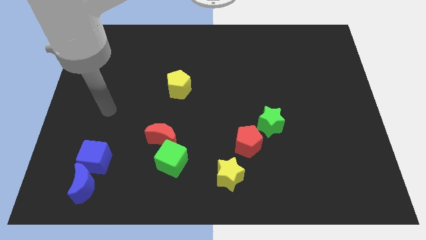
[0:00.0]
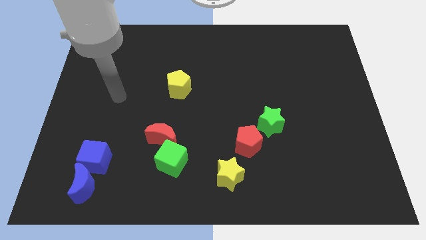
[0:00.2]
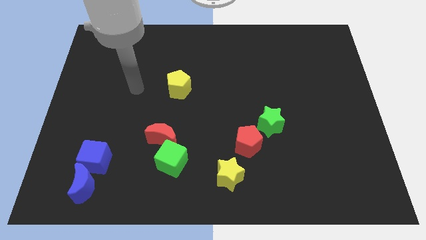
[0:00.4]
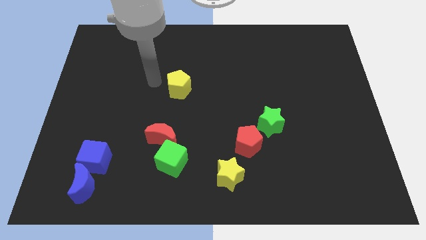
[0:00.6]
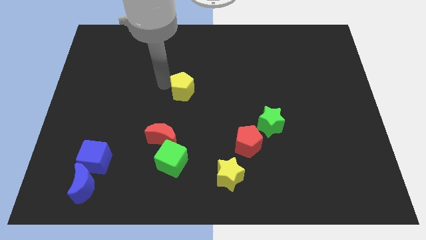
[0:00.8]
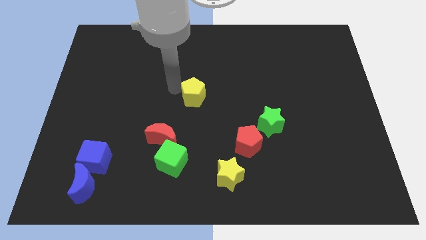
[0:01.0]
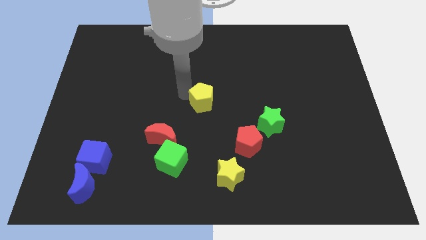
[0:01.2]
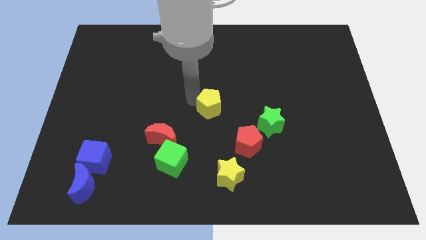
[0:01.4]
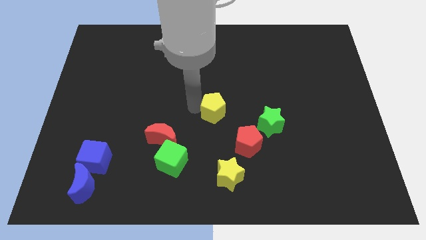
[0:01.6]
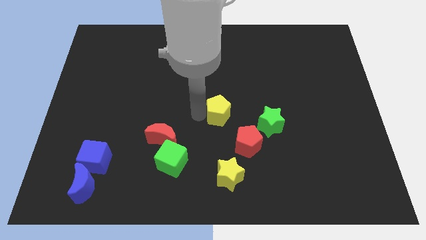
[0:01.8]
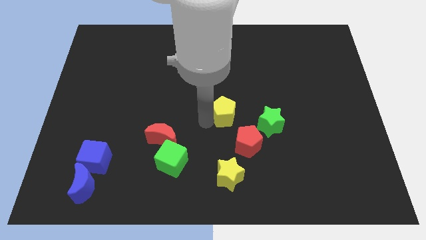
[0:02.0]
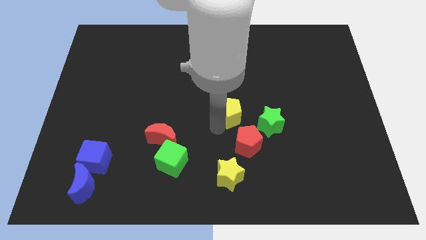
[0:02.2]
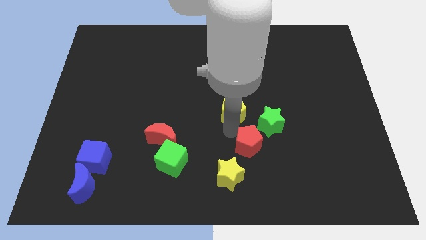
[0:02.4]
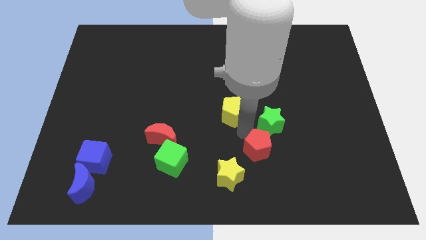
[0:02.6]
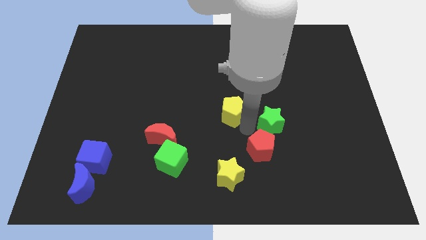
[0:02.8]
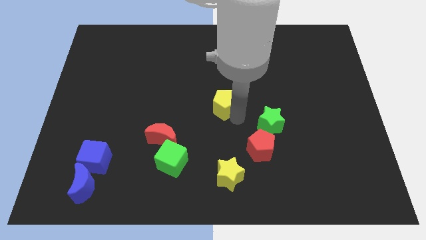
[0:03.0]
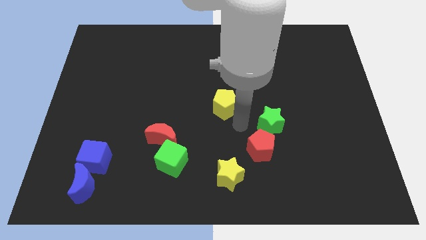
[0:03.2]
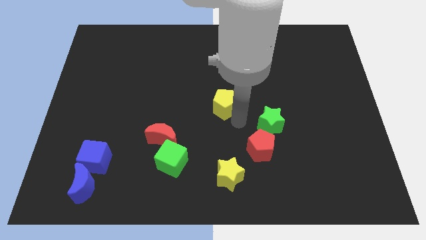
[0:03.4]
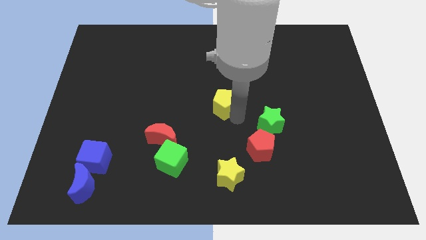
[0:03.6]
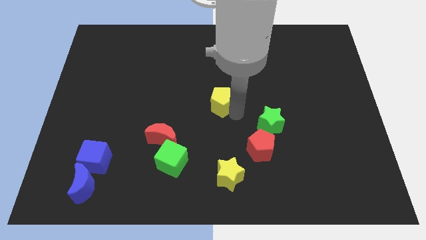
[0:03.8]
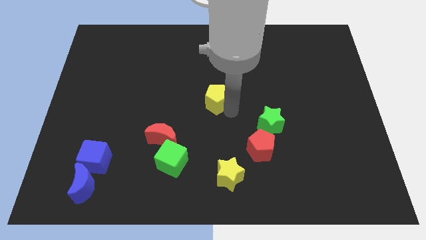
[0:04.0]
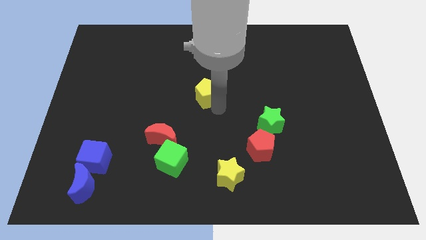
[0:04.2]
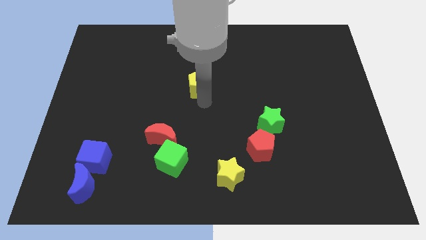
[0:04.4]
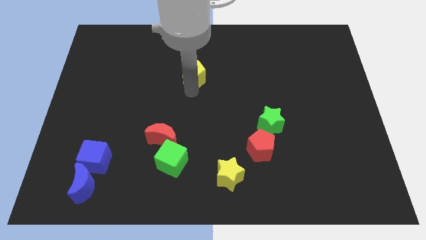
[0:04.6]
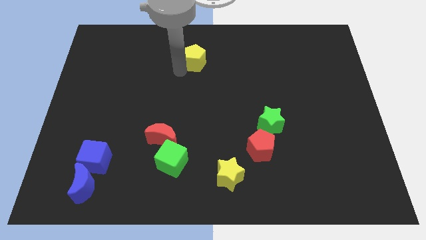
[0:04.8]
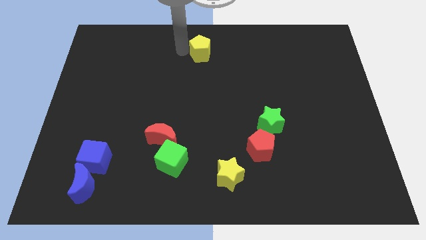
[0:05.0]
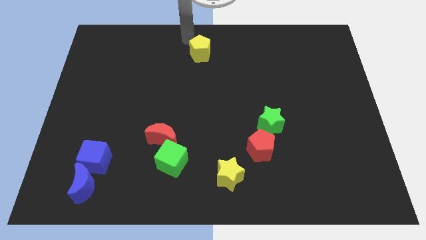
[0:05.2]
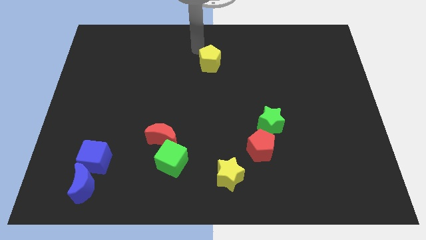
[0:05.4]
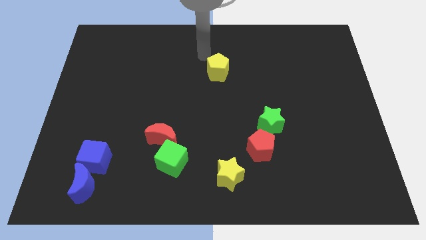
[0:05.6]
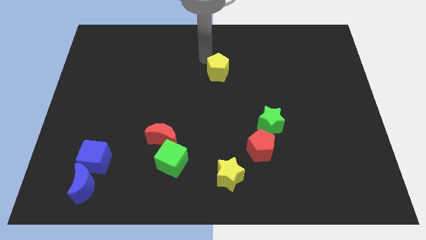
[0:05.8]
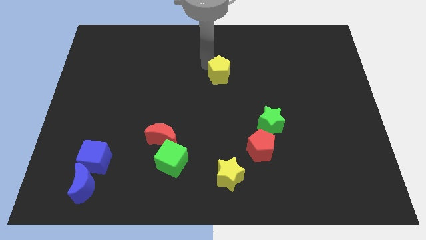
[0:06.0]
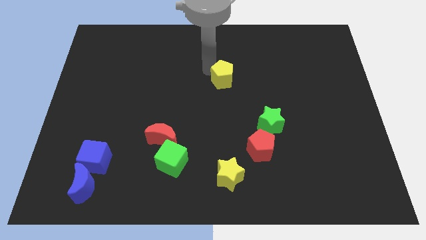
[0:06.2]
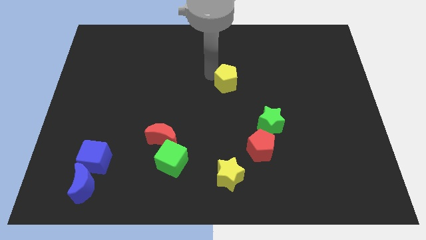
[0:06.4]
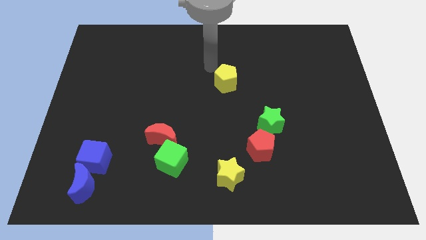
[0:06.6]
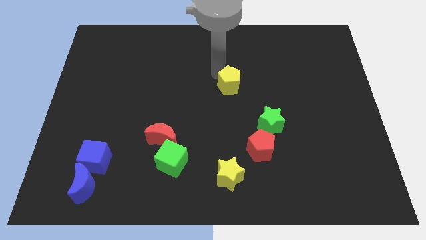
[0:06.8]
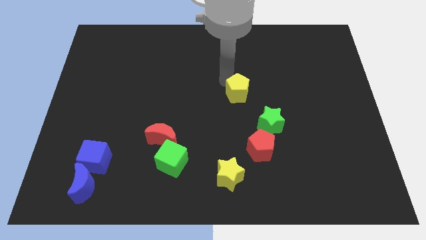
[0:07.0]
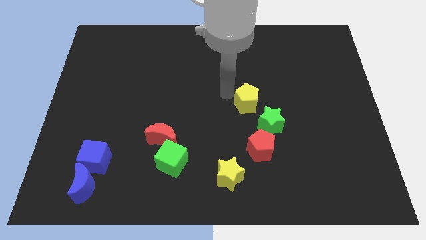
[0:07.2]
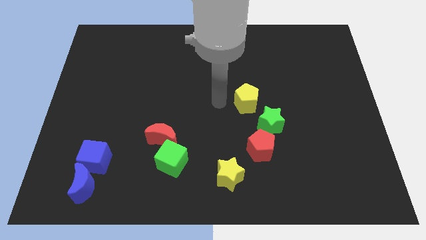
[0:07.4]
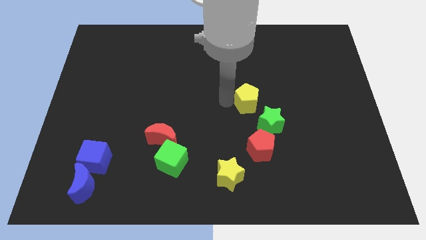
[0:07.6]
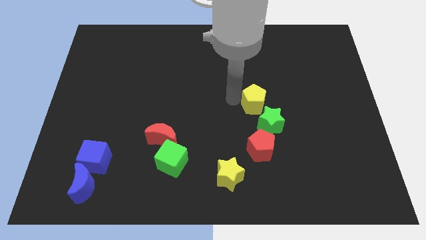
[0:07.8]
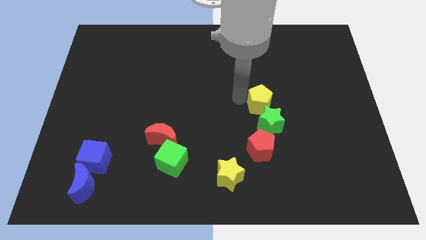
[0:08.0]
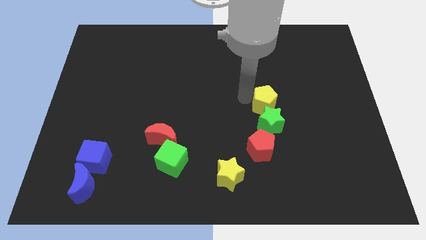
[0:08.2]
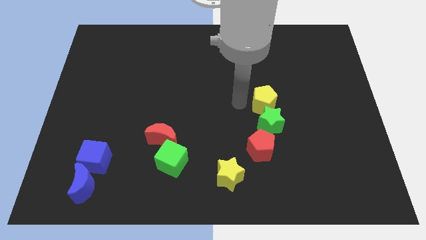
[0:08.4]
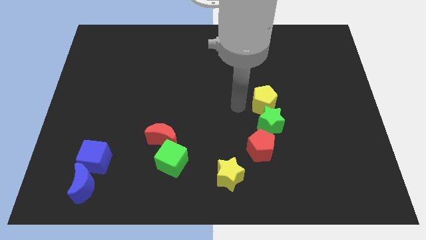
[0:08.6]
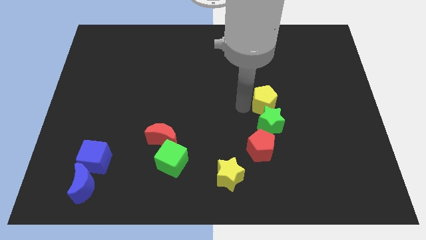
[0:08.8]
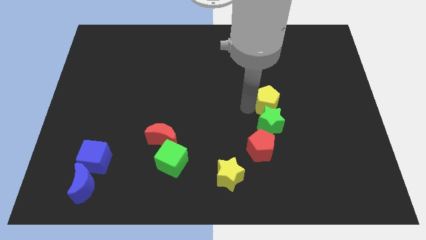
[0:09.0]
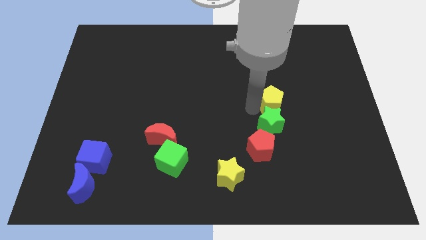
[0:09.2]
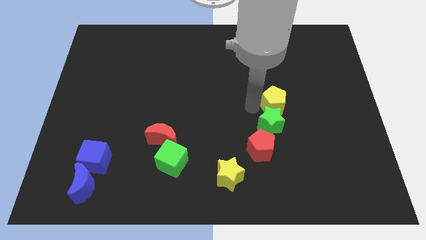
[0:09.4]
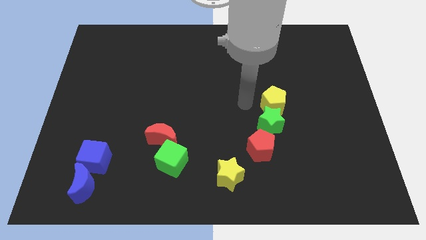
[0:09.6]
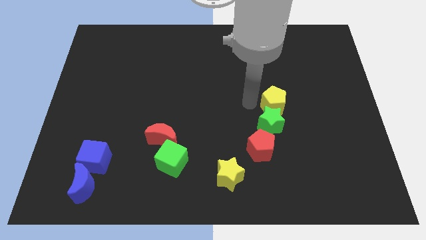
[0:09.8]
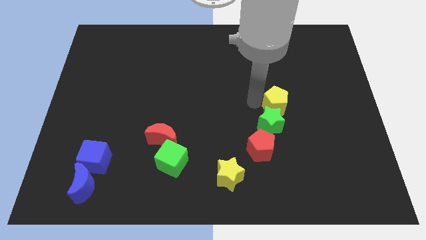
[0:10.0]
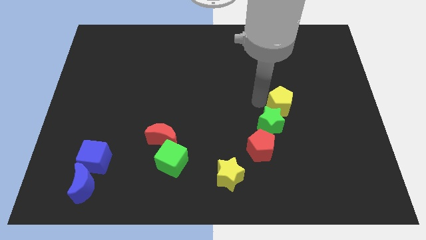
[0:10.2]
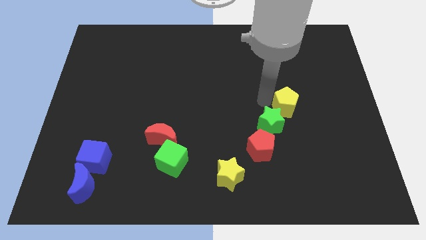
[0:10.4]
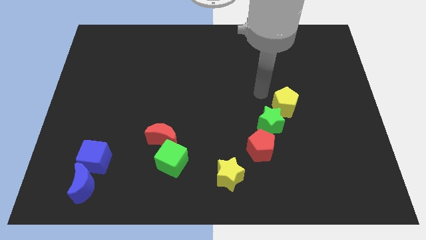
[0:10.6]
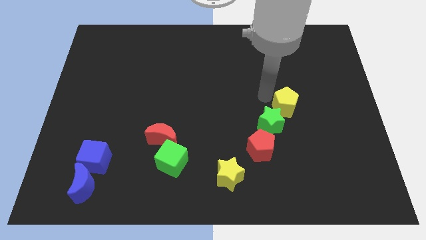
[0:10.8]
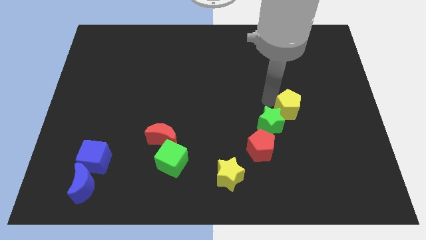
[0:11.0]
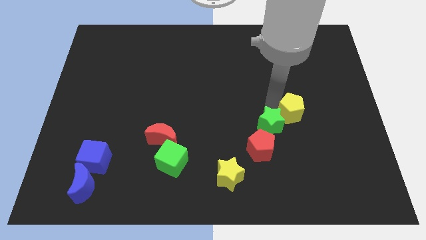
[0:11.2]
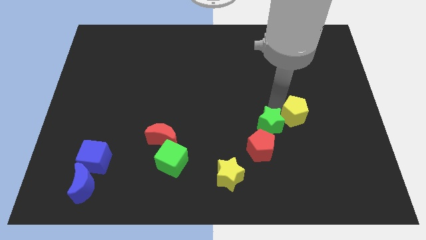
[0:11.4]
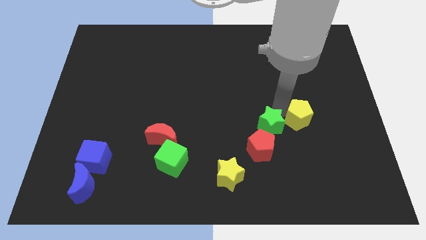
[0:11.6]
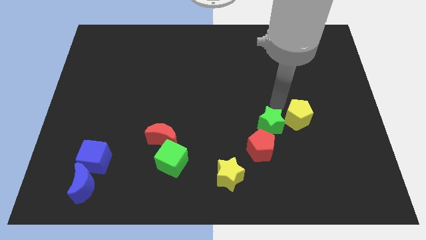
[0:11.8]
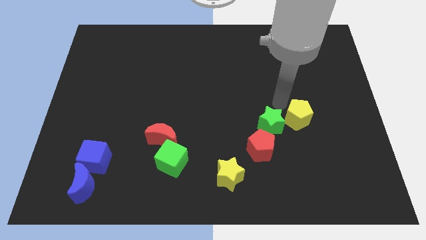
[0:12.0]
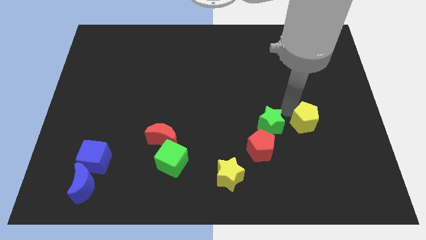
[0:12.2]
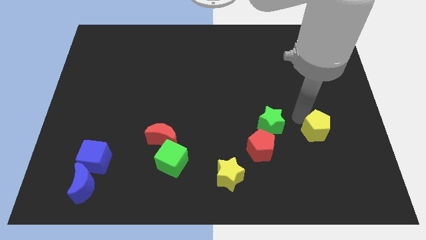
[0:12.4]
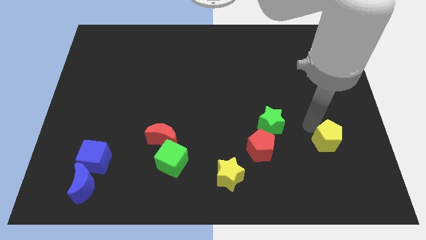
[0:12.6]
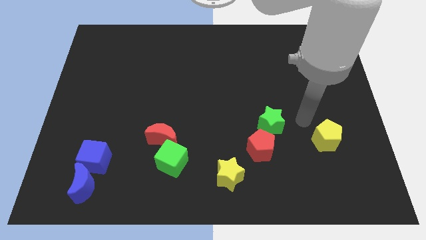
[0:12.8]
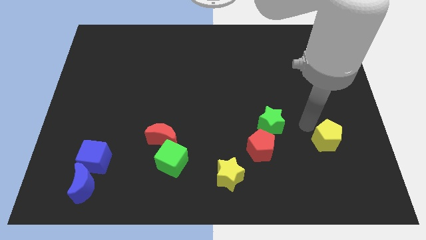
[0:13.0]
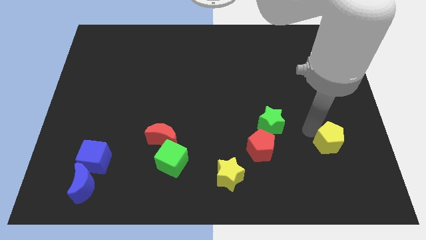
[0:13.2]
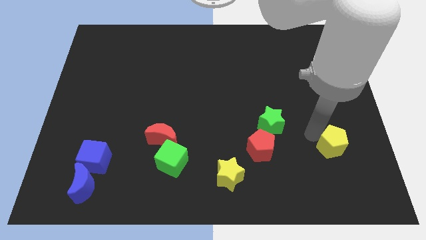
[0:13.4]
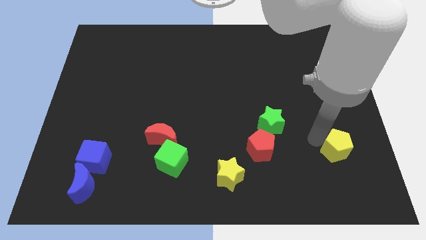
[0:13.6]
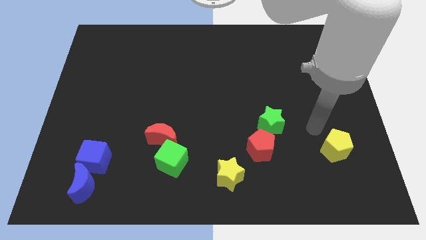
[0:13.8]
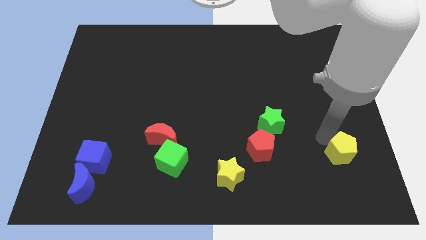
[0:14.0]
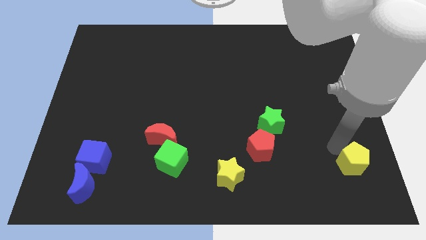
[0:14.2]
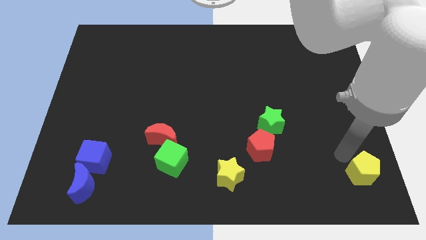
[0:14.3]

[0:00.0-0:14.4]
put the yellow pentagon to the bottom right of the board
